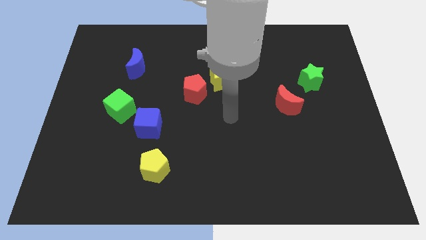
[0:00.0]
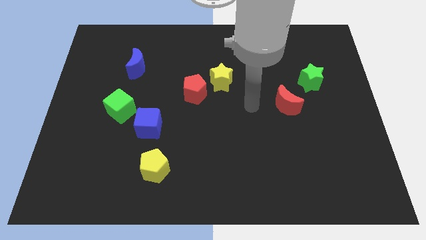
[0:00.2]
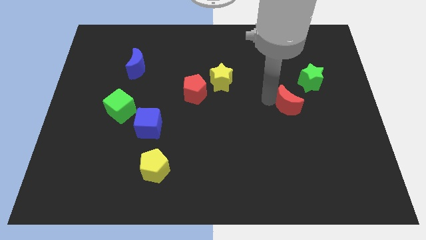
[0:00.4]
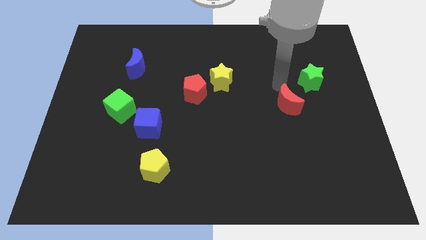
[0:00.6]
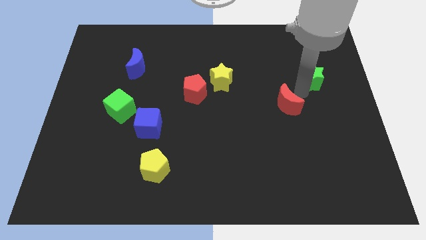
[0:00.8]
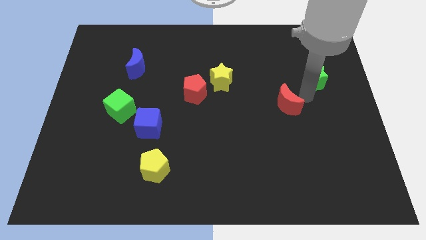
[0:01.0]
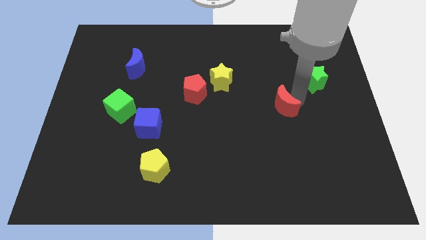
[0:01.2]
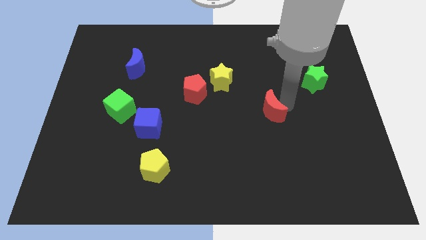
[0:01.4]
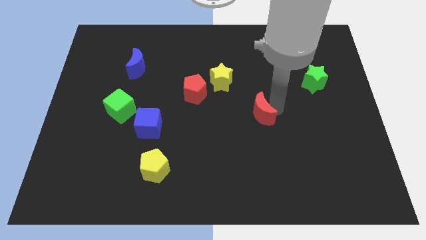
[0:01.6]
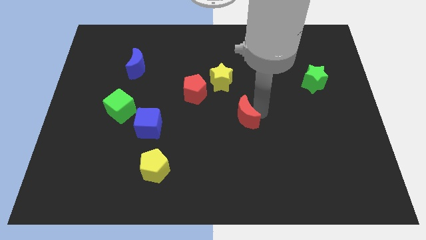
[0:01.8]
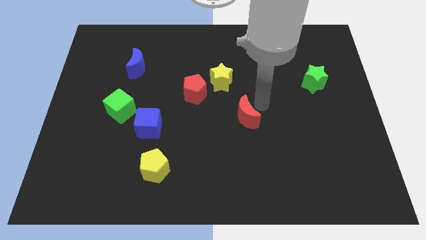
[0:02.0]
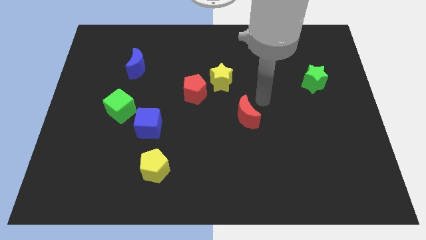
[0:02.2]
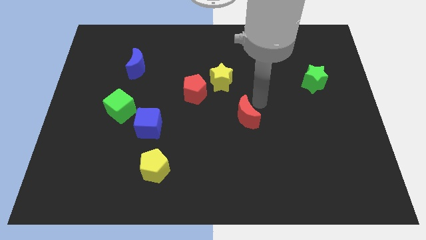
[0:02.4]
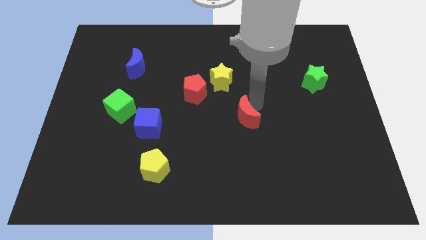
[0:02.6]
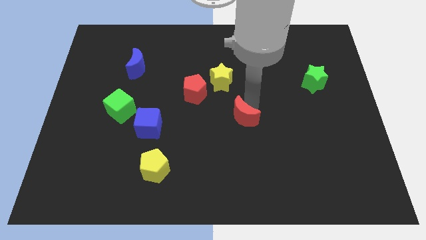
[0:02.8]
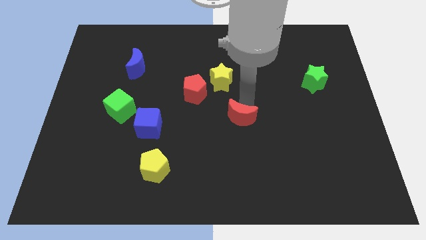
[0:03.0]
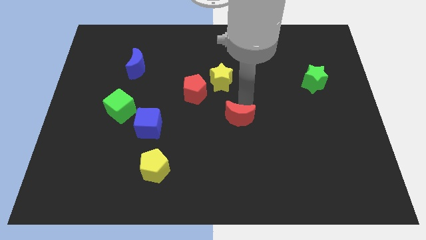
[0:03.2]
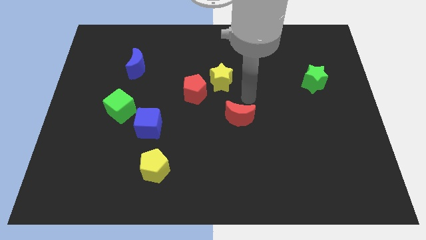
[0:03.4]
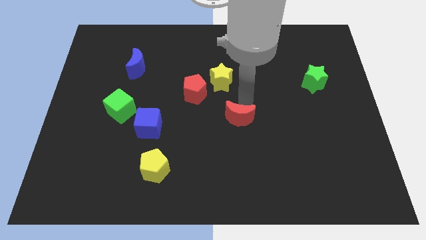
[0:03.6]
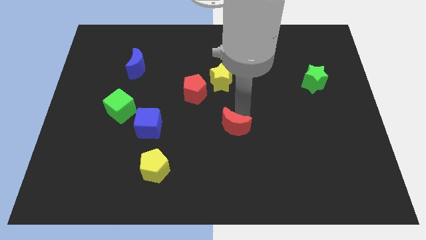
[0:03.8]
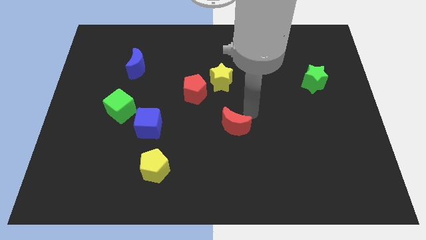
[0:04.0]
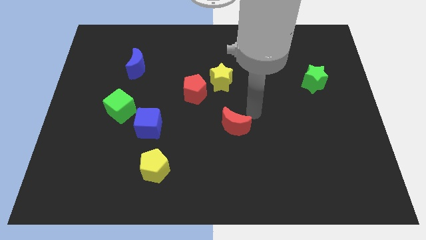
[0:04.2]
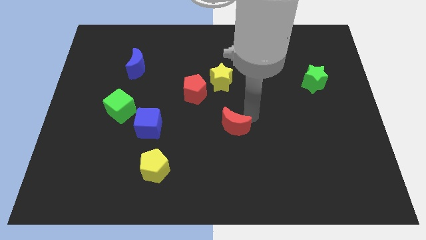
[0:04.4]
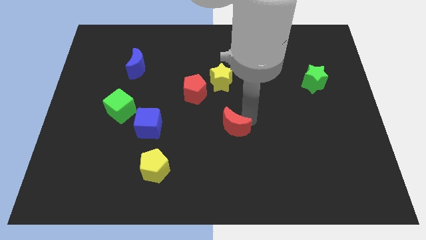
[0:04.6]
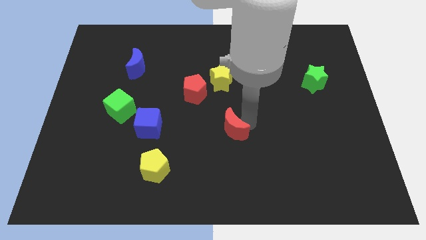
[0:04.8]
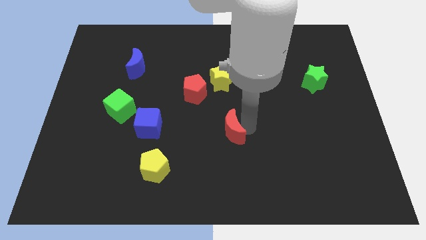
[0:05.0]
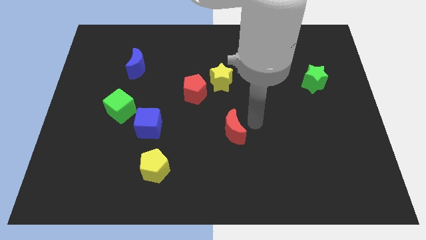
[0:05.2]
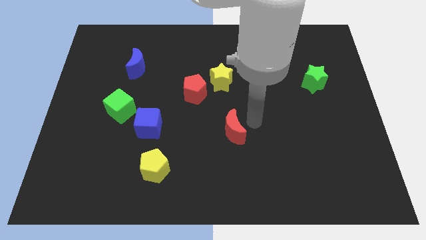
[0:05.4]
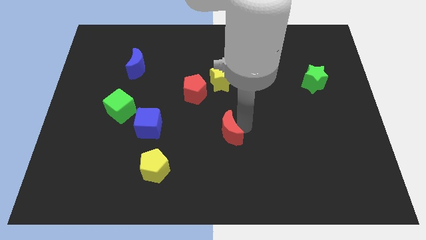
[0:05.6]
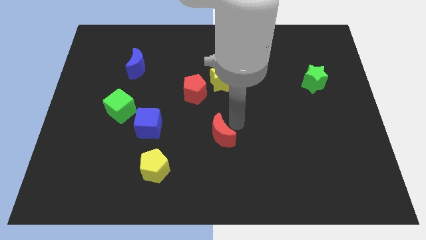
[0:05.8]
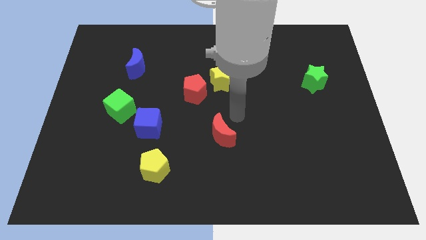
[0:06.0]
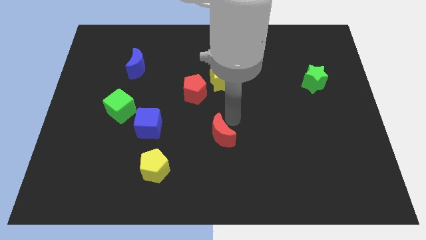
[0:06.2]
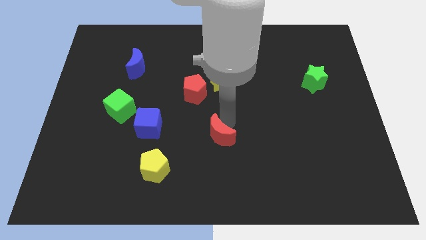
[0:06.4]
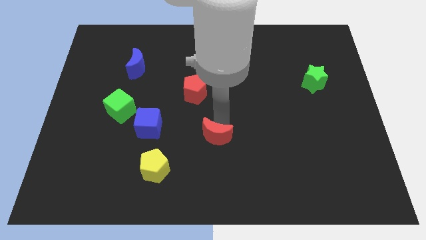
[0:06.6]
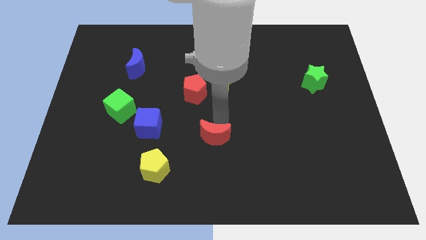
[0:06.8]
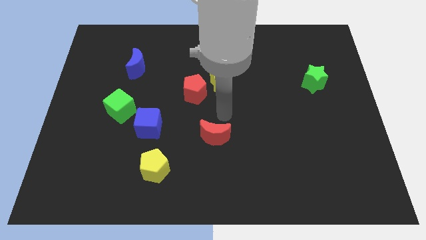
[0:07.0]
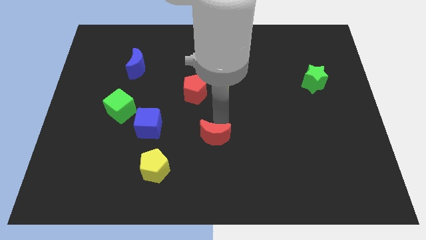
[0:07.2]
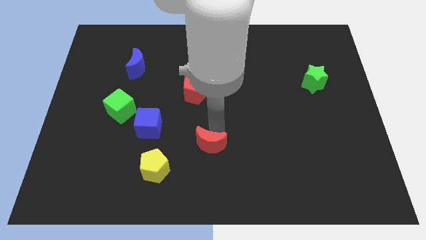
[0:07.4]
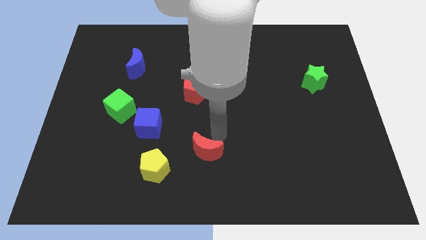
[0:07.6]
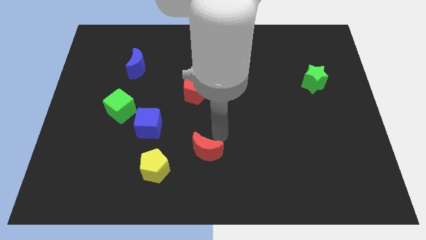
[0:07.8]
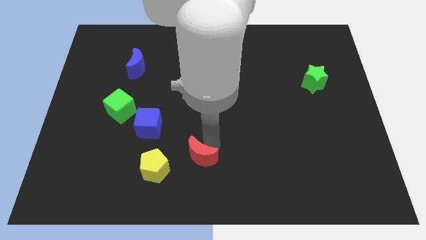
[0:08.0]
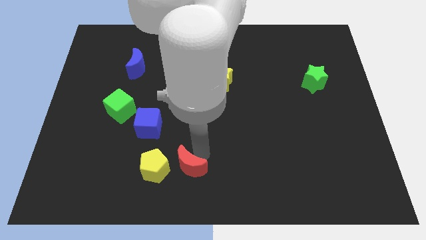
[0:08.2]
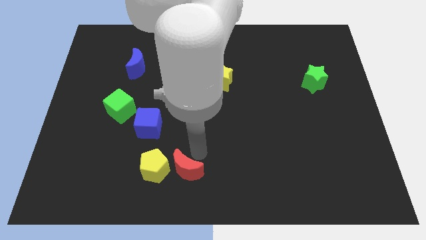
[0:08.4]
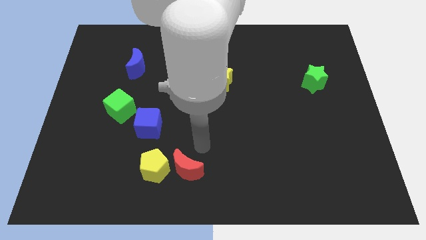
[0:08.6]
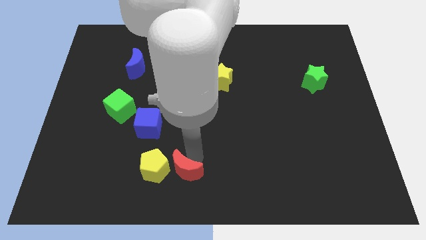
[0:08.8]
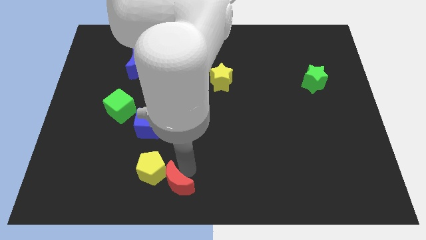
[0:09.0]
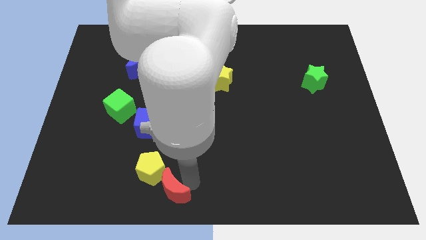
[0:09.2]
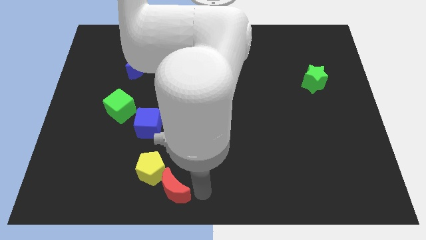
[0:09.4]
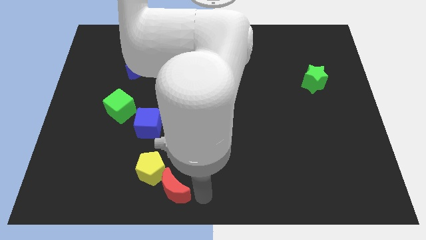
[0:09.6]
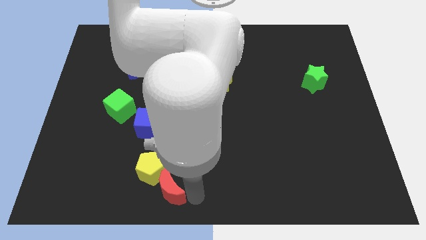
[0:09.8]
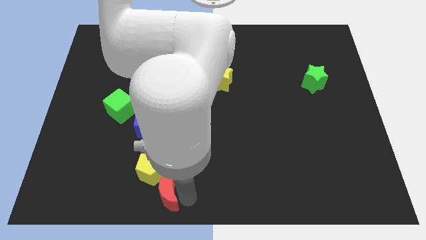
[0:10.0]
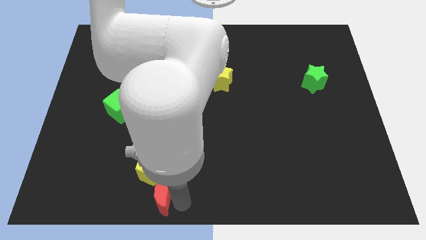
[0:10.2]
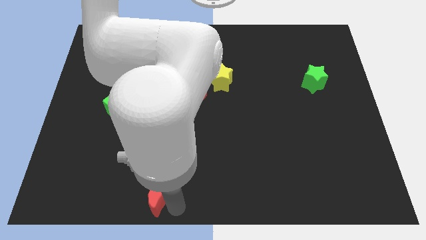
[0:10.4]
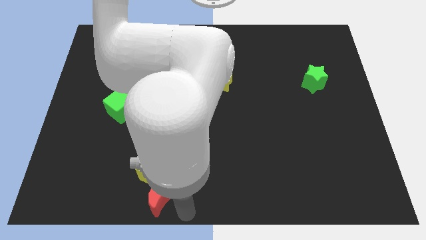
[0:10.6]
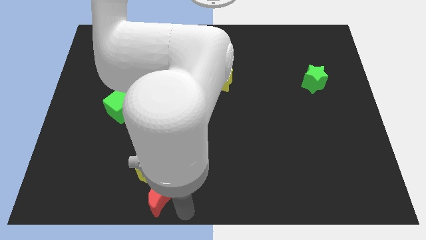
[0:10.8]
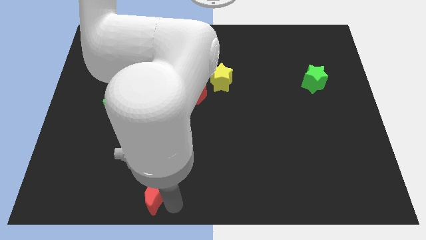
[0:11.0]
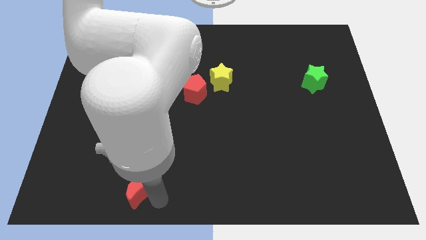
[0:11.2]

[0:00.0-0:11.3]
push the red moon below the blue cube

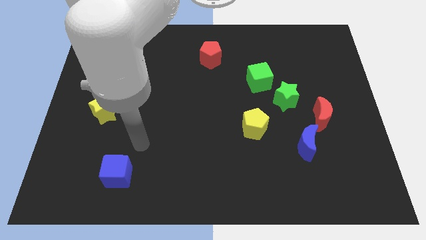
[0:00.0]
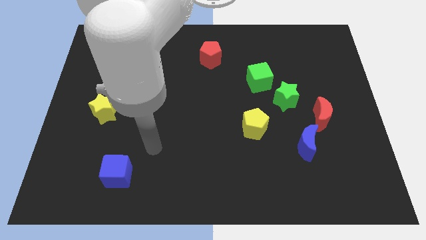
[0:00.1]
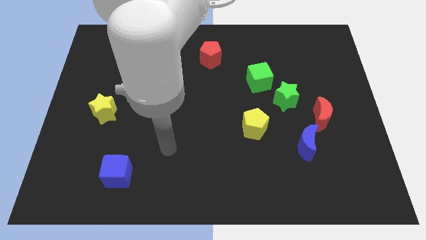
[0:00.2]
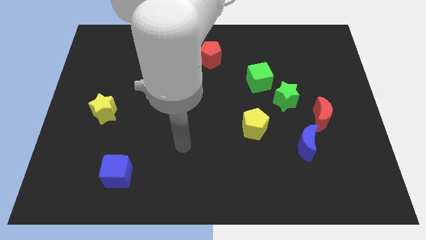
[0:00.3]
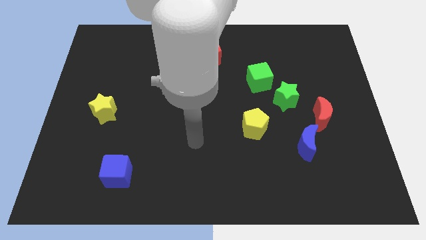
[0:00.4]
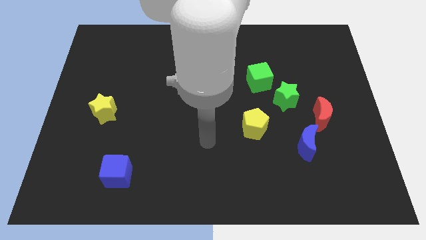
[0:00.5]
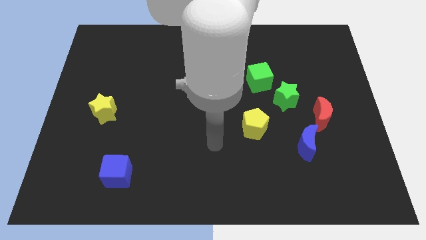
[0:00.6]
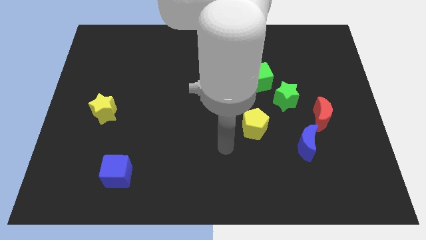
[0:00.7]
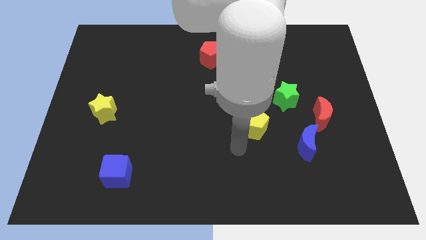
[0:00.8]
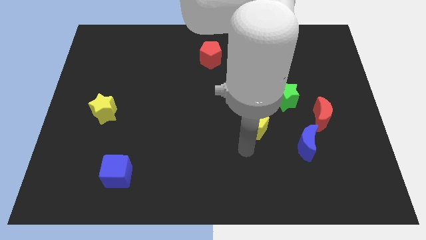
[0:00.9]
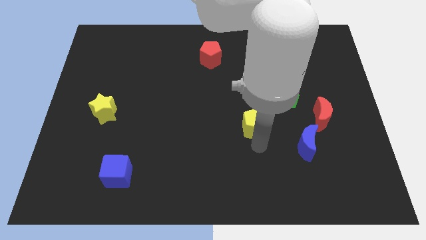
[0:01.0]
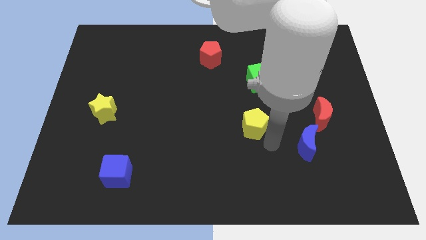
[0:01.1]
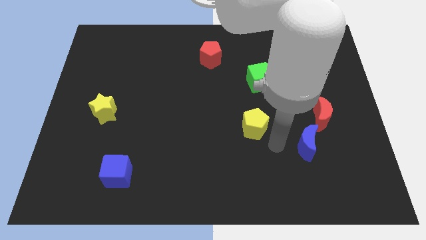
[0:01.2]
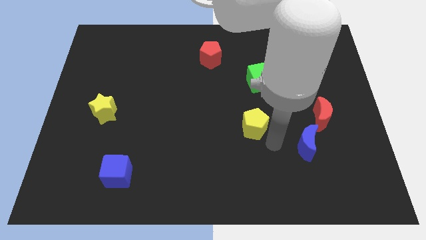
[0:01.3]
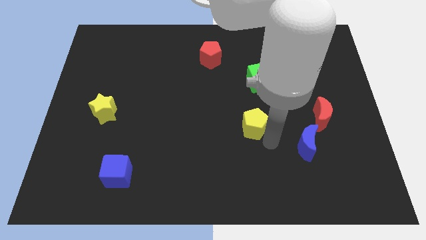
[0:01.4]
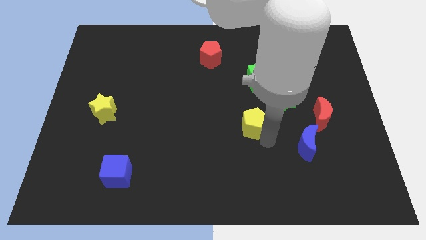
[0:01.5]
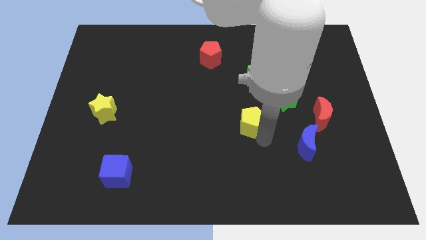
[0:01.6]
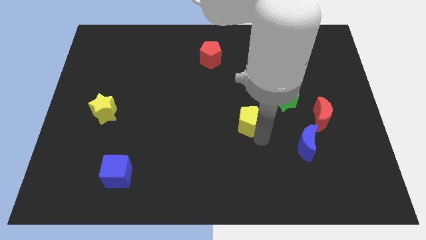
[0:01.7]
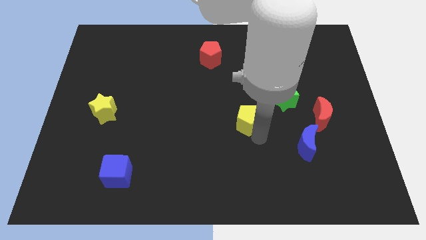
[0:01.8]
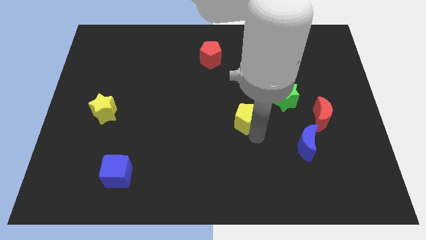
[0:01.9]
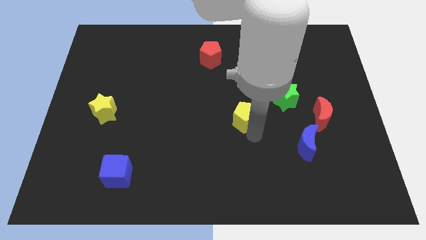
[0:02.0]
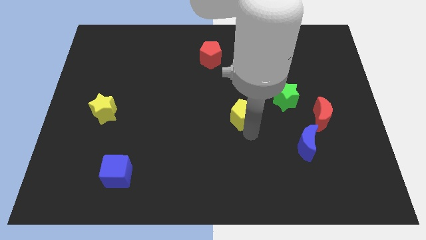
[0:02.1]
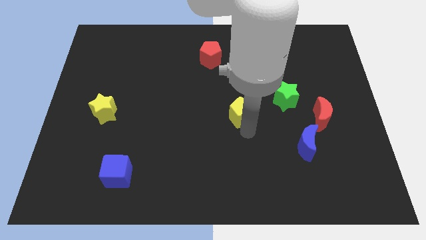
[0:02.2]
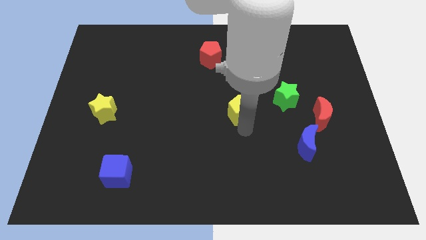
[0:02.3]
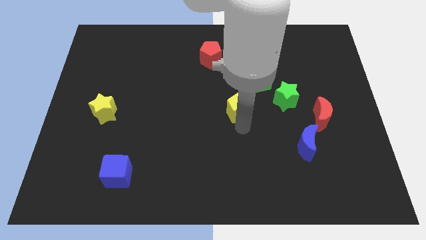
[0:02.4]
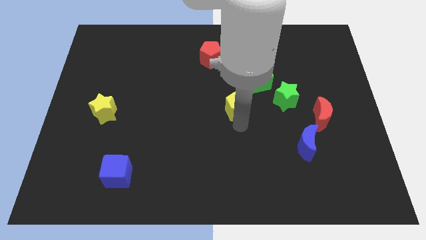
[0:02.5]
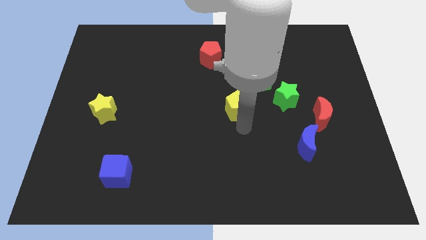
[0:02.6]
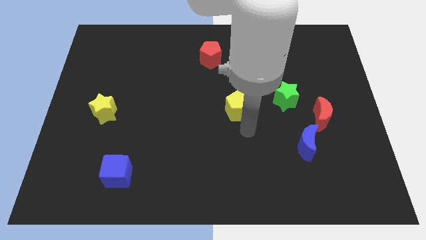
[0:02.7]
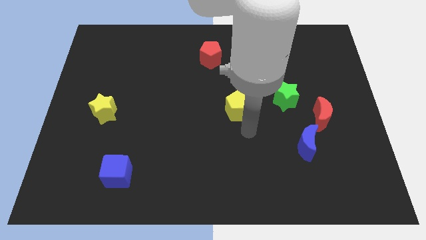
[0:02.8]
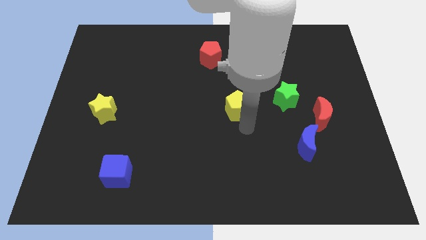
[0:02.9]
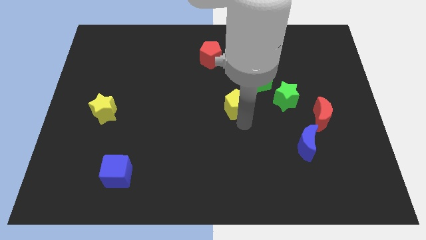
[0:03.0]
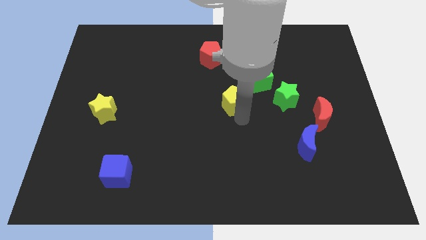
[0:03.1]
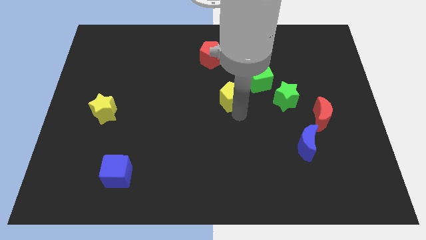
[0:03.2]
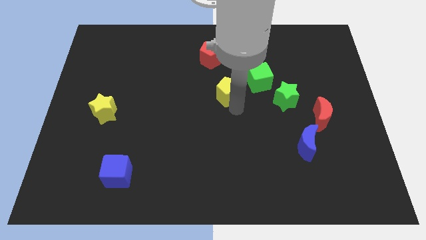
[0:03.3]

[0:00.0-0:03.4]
put the yellow pentagon to the left side of the green cube
